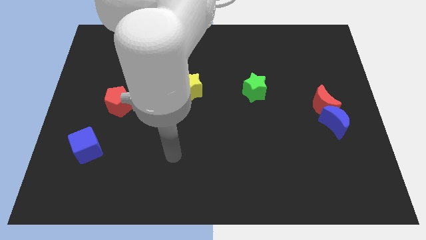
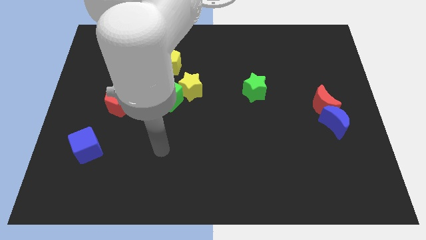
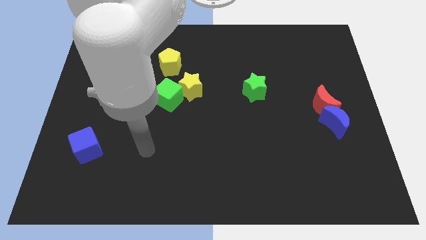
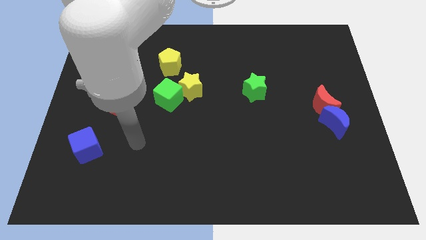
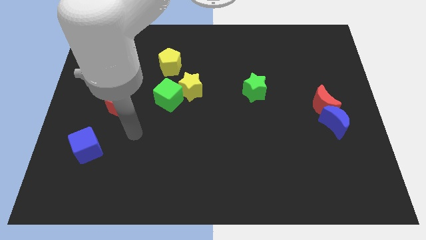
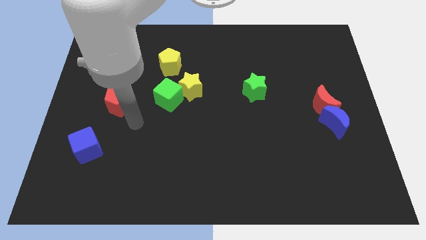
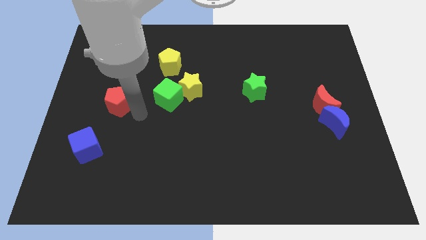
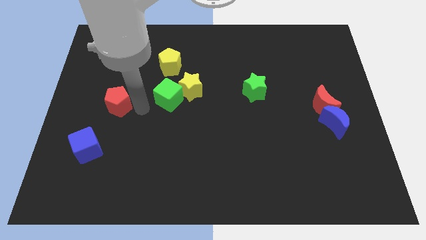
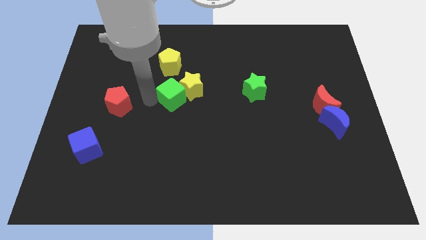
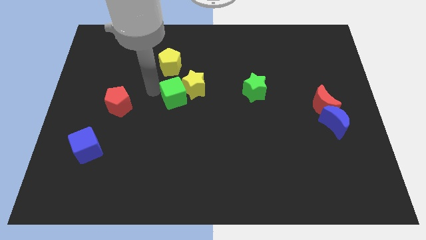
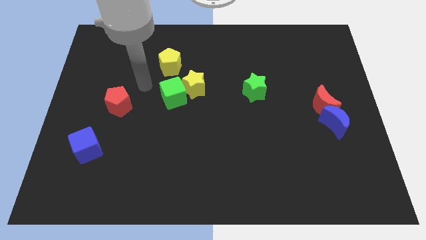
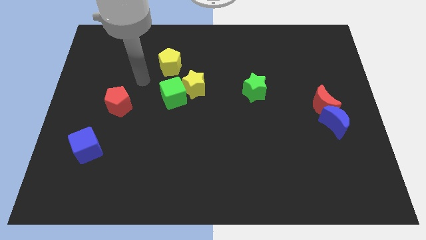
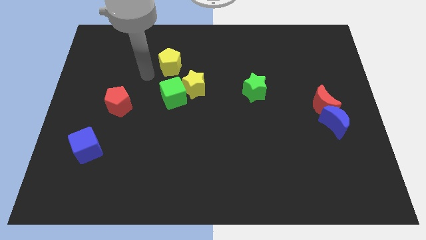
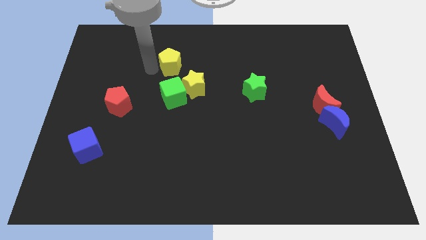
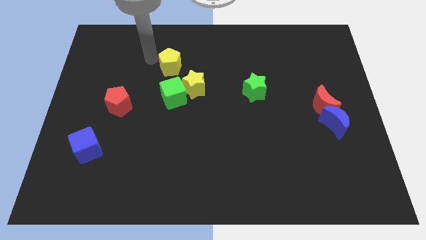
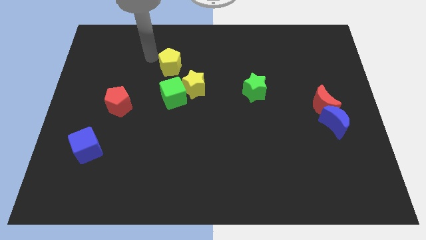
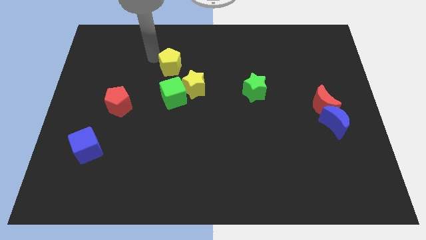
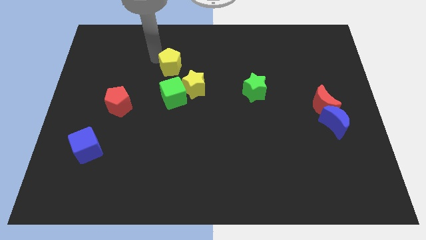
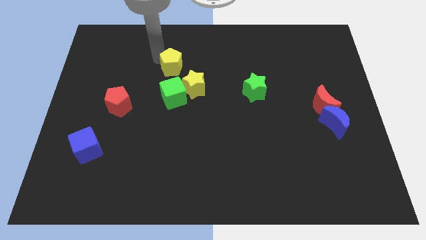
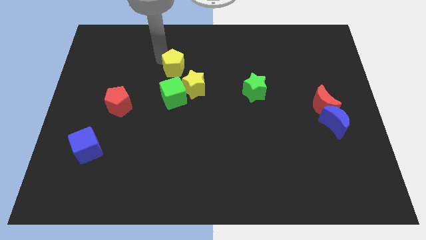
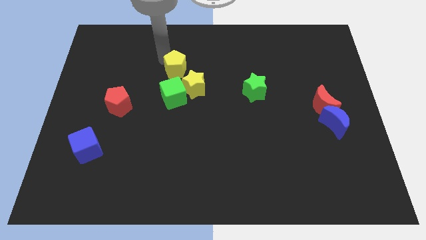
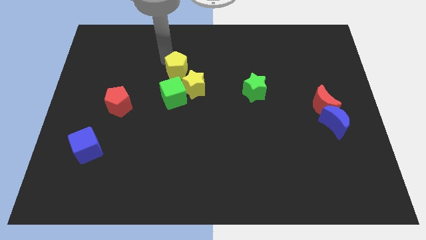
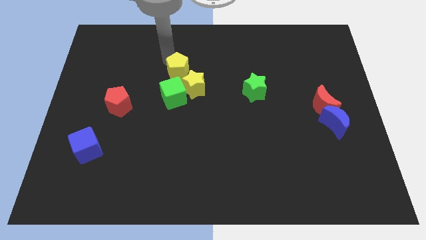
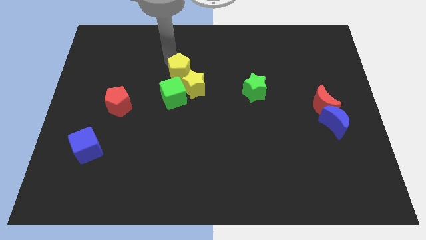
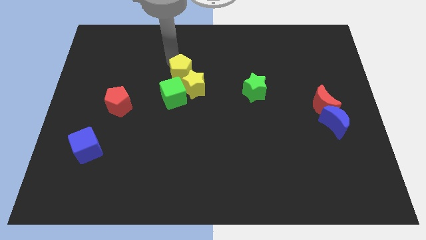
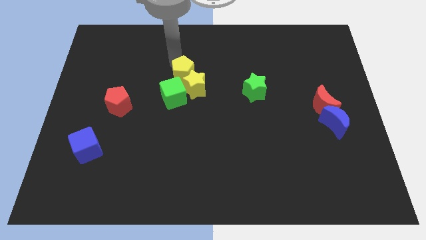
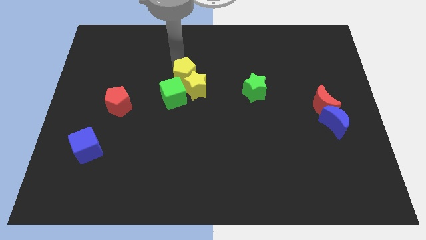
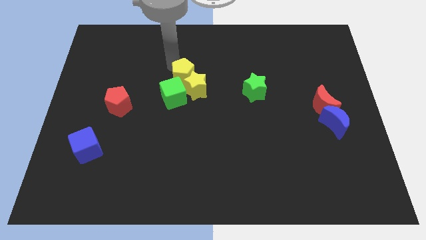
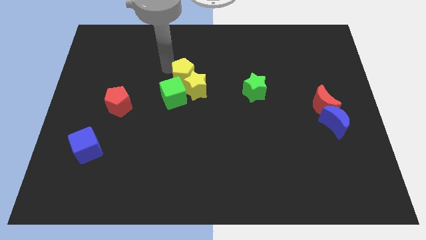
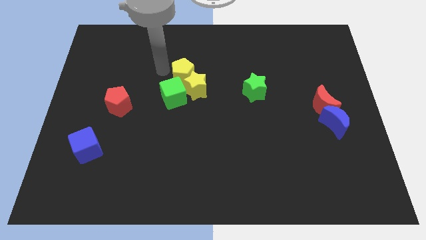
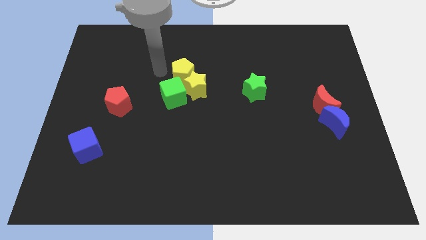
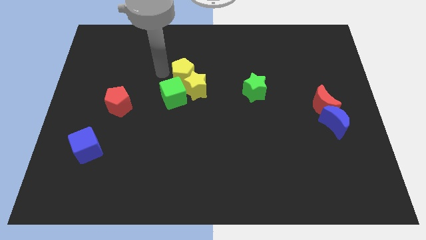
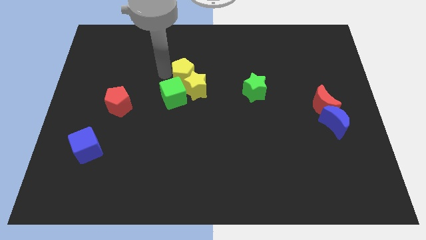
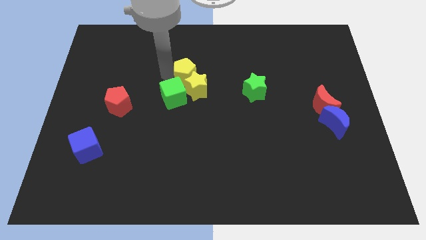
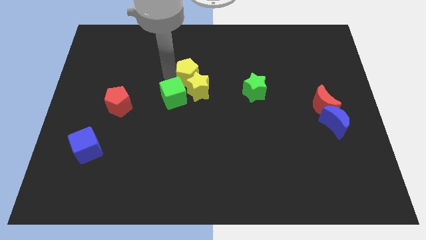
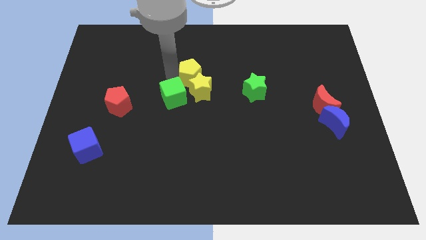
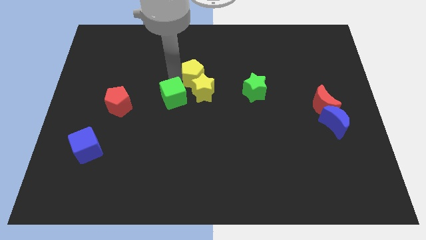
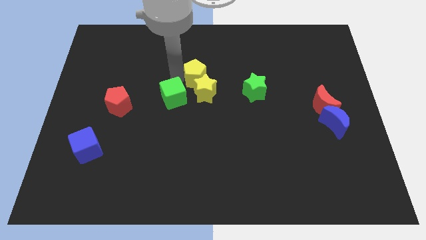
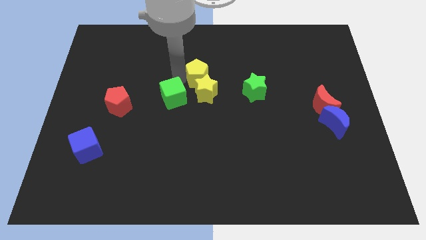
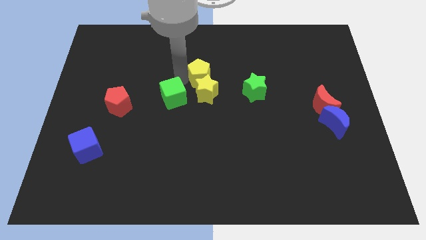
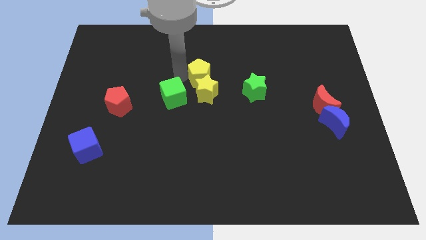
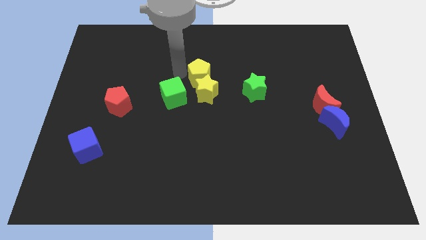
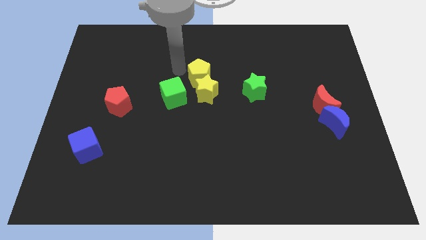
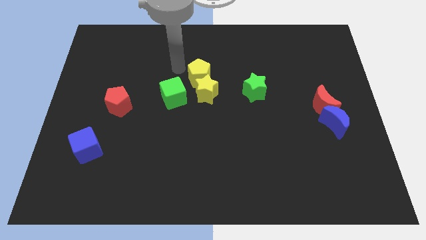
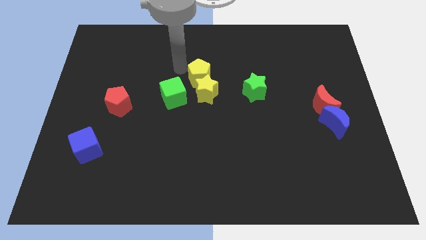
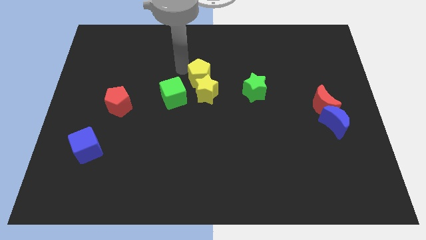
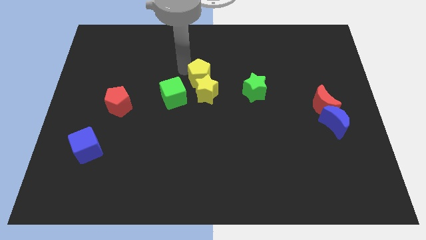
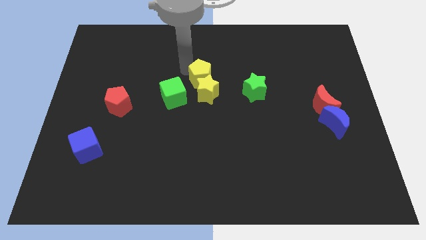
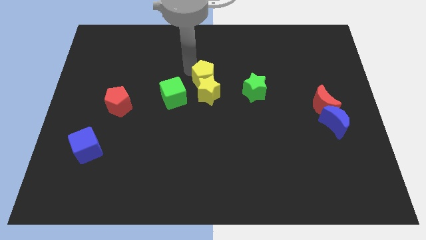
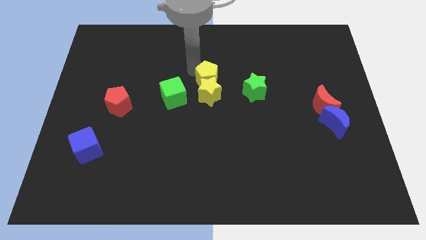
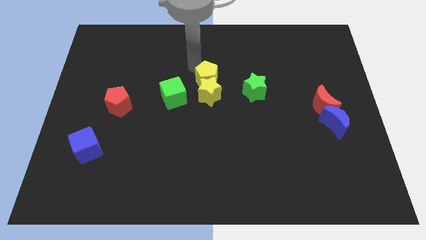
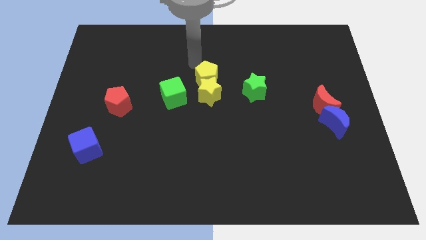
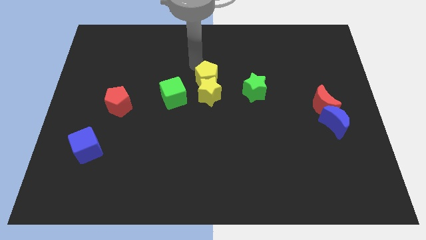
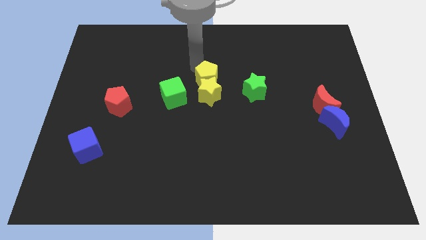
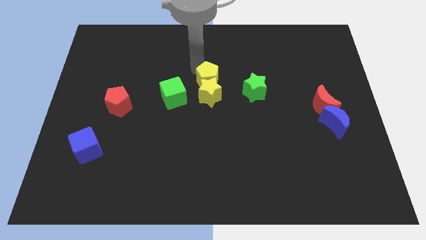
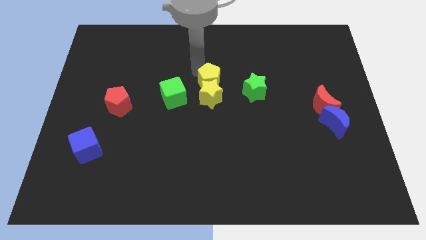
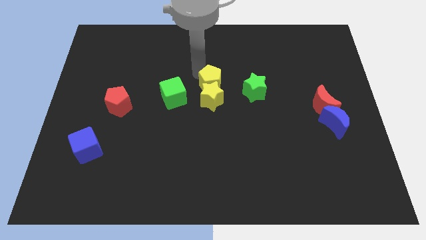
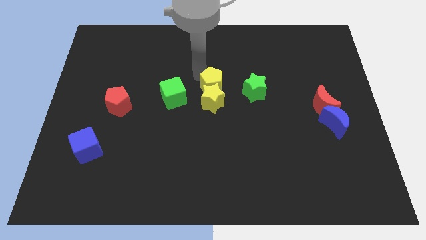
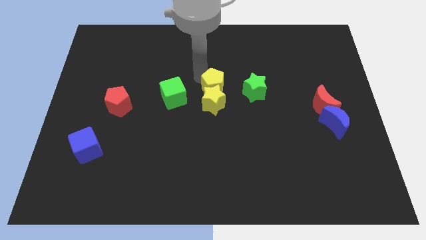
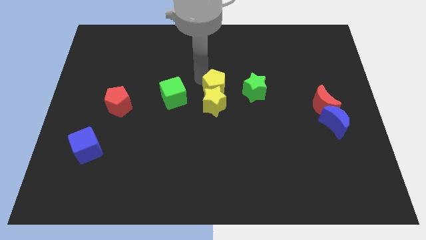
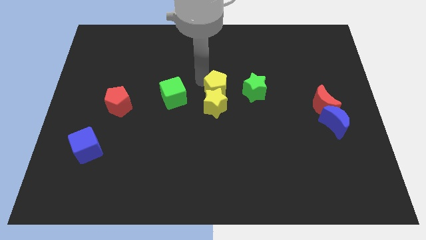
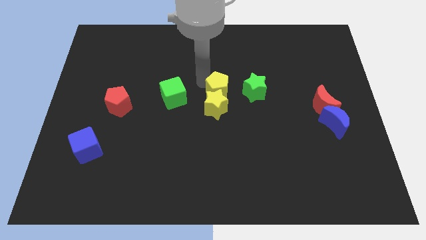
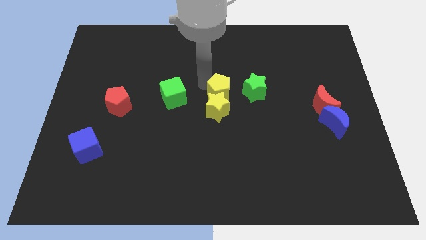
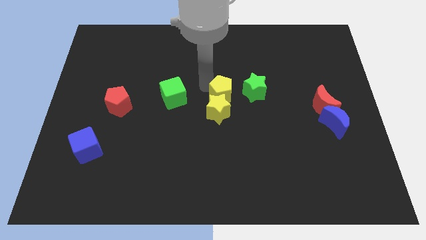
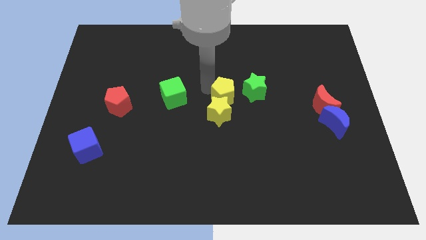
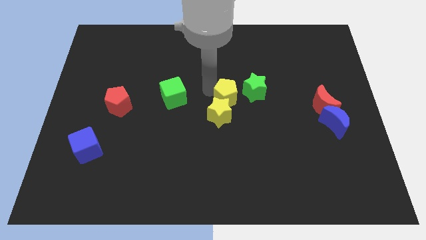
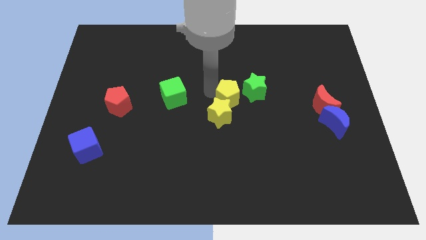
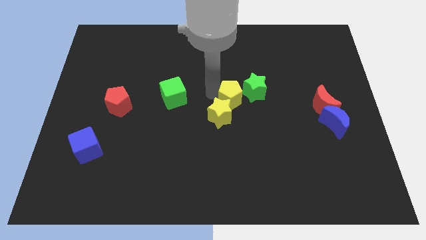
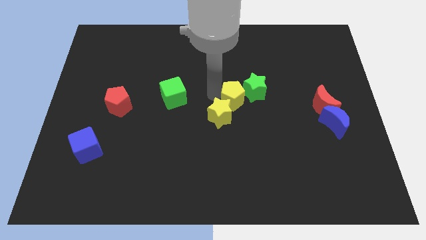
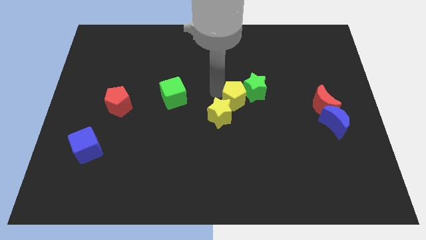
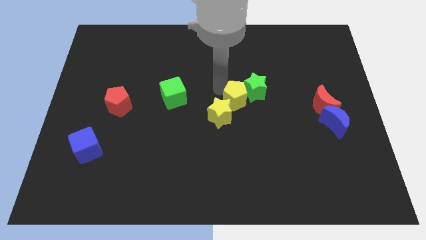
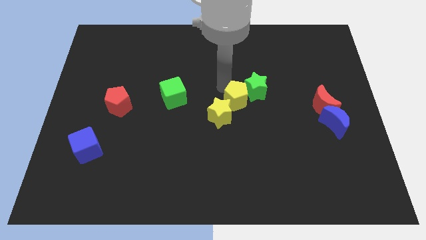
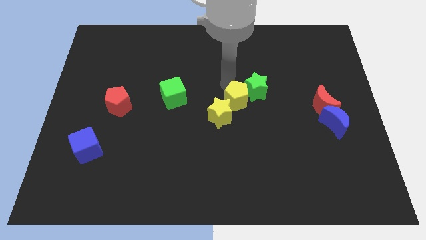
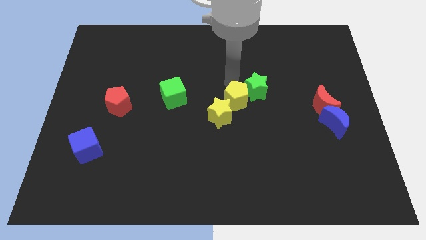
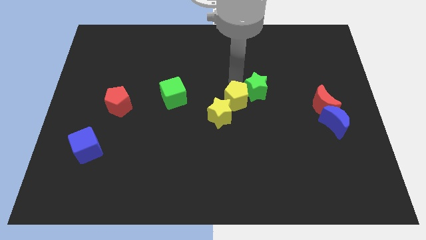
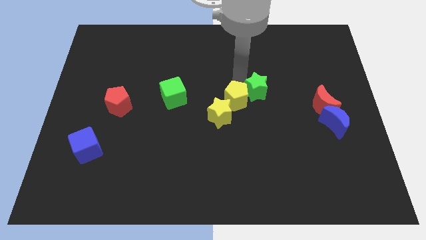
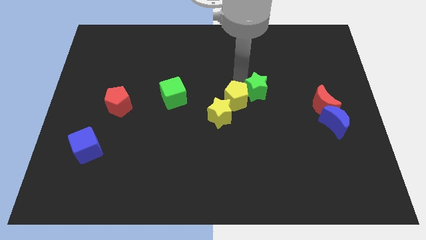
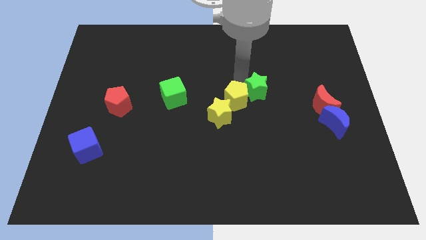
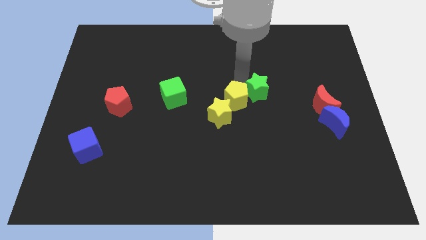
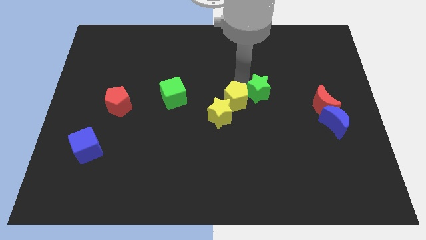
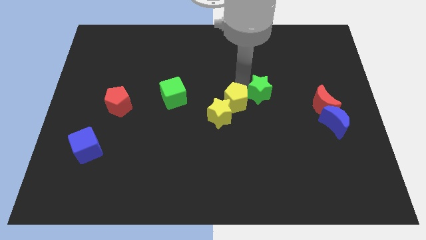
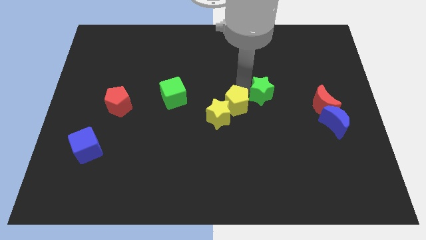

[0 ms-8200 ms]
slide the yellow pentagon downwards and right
